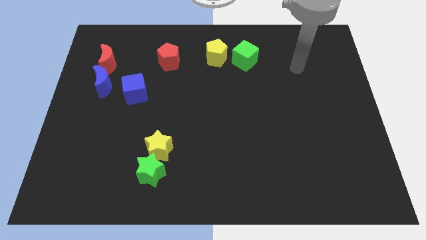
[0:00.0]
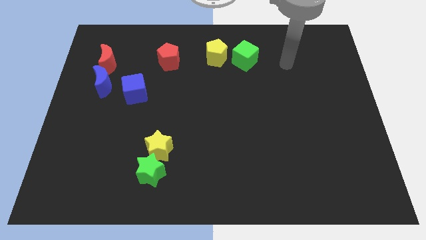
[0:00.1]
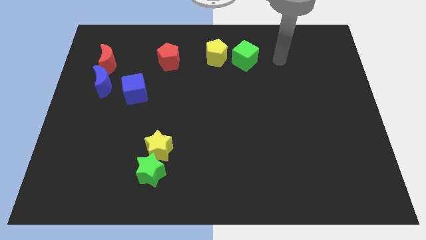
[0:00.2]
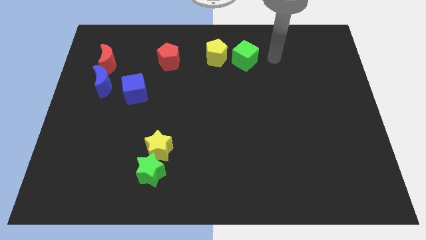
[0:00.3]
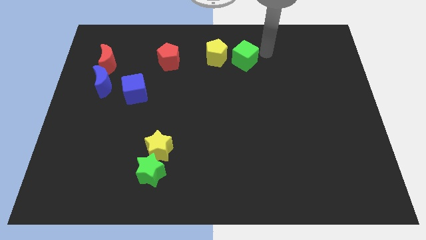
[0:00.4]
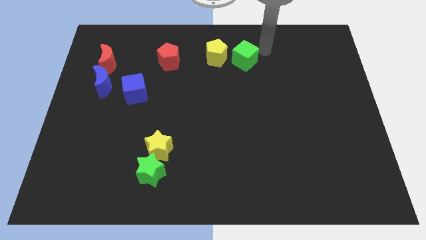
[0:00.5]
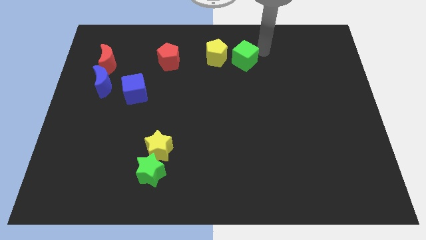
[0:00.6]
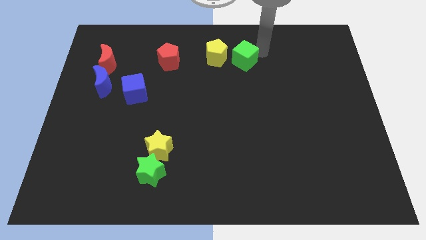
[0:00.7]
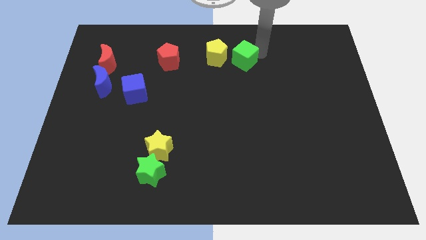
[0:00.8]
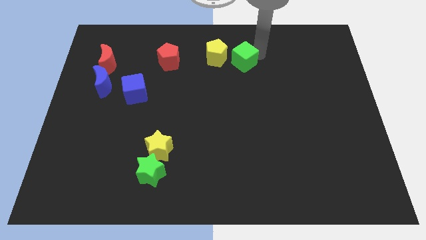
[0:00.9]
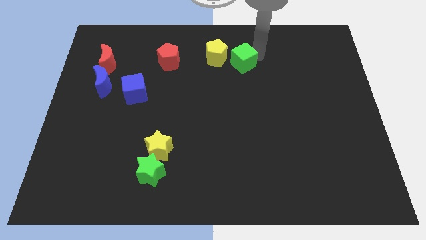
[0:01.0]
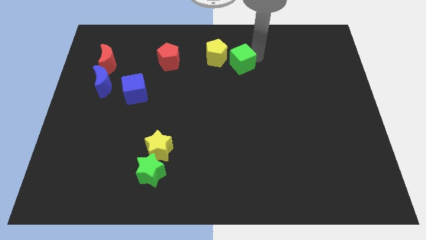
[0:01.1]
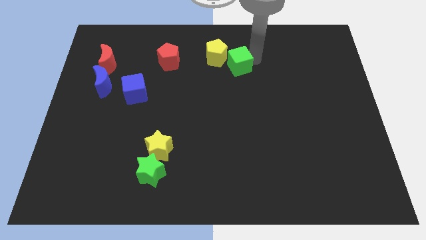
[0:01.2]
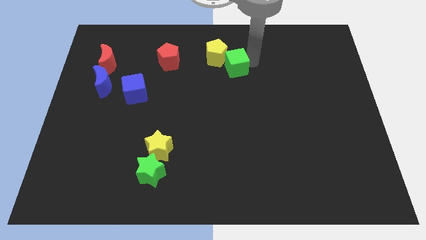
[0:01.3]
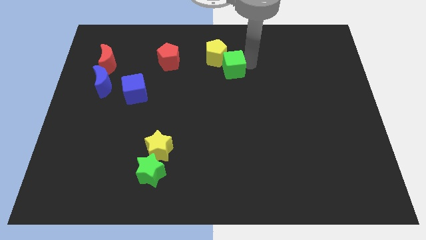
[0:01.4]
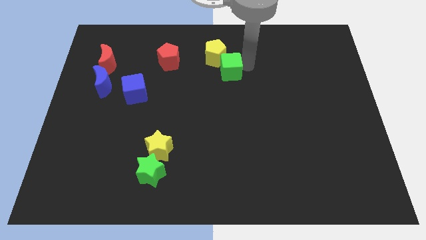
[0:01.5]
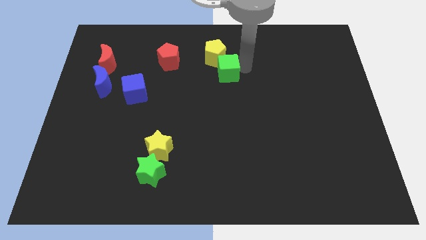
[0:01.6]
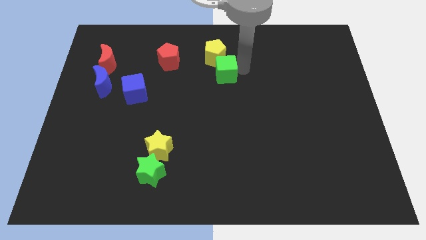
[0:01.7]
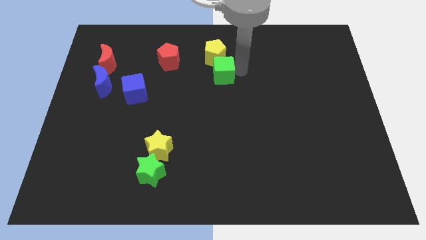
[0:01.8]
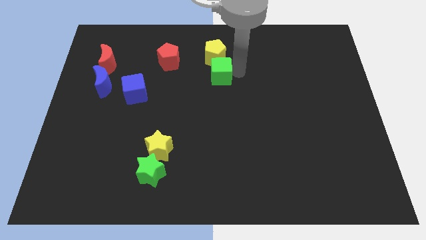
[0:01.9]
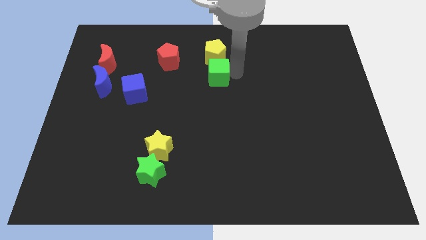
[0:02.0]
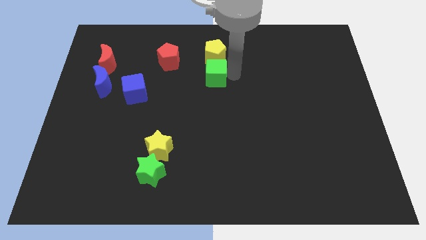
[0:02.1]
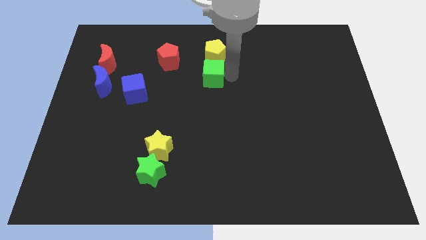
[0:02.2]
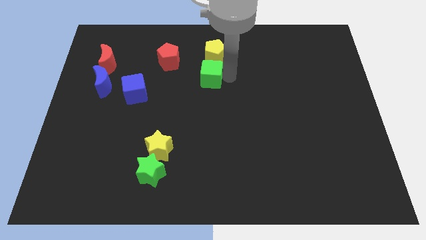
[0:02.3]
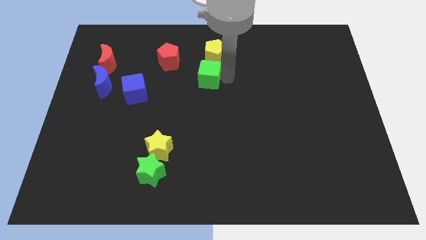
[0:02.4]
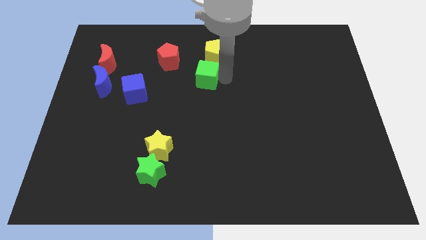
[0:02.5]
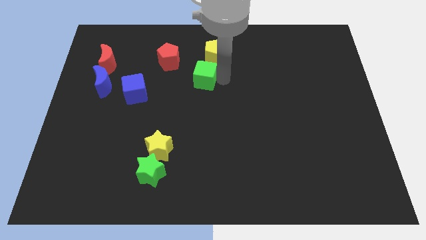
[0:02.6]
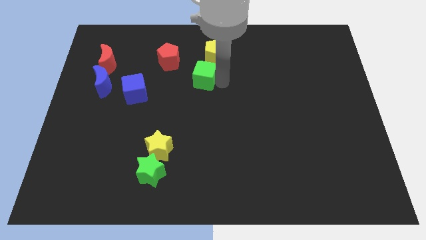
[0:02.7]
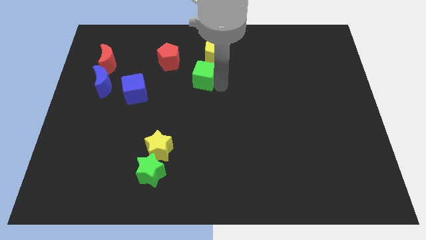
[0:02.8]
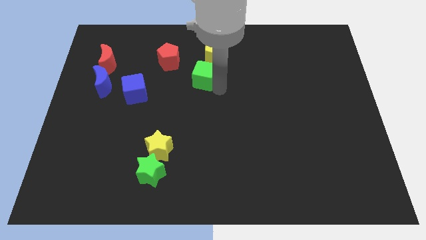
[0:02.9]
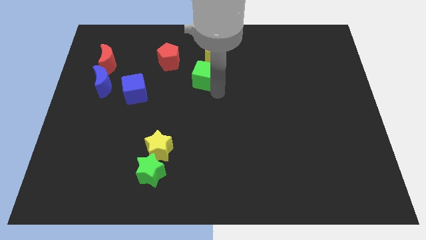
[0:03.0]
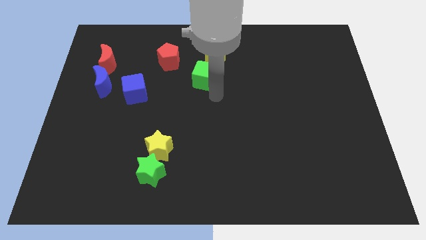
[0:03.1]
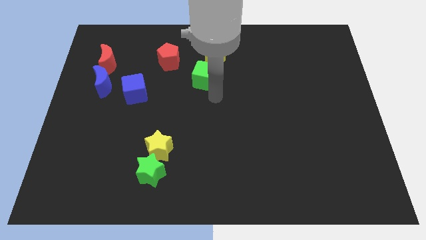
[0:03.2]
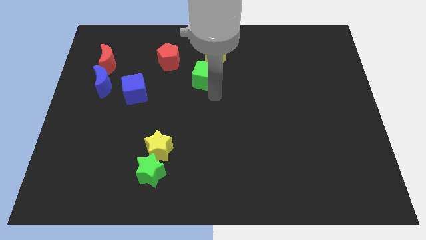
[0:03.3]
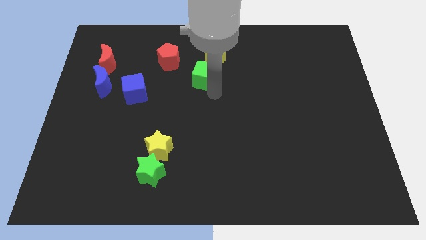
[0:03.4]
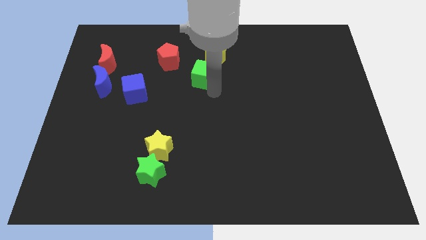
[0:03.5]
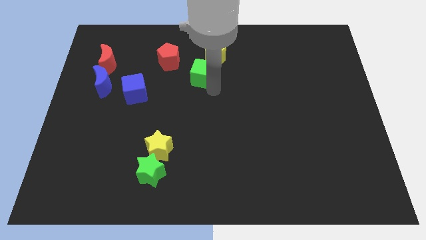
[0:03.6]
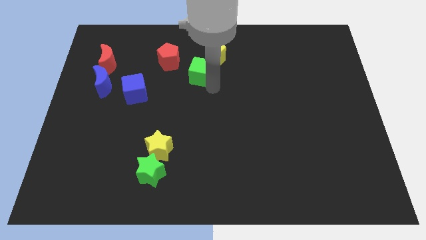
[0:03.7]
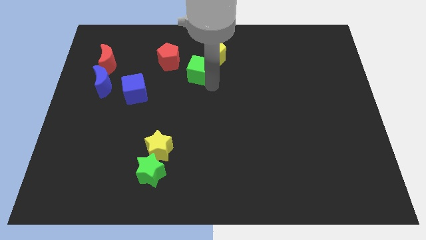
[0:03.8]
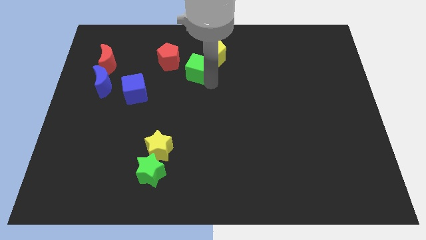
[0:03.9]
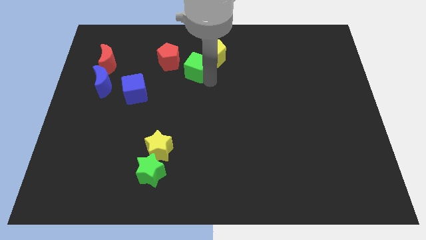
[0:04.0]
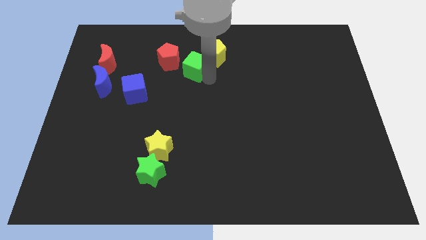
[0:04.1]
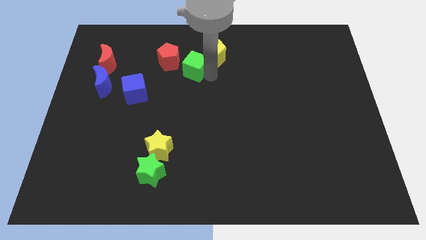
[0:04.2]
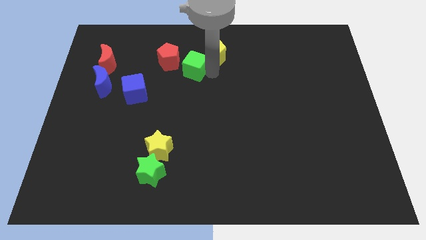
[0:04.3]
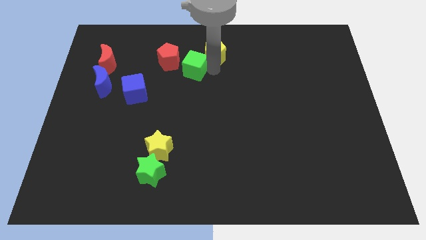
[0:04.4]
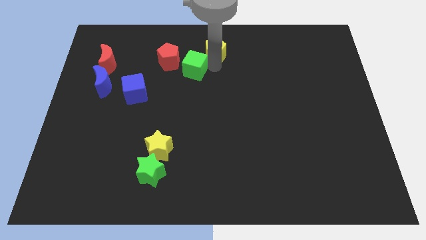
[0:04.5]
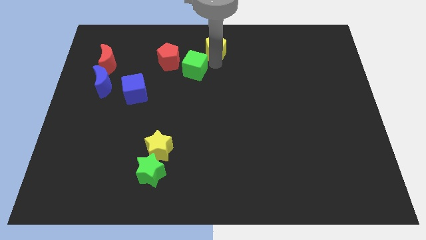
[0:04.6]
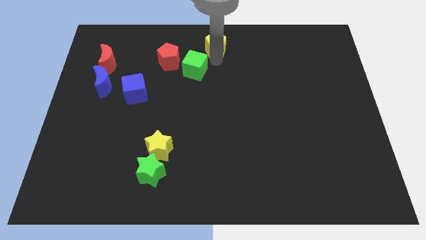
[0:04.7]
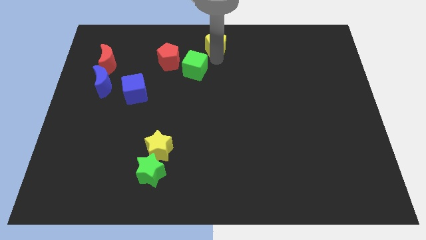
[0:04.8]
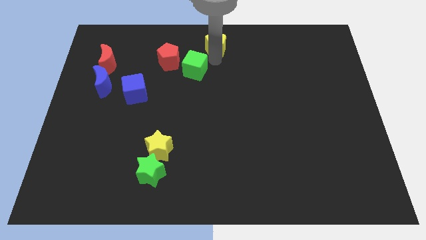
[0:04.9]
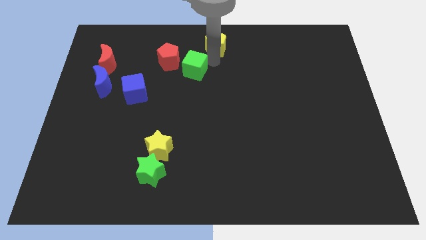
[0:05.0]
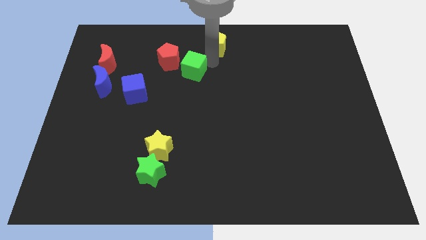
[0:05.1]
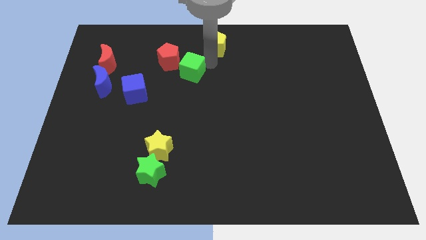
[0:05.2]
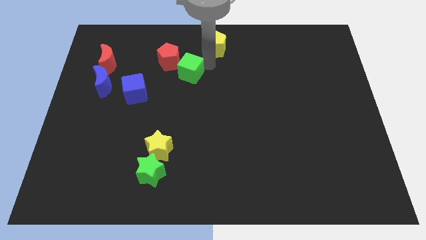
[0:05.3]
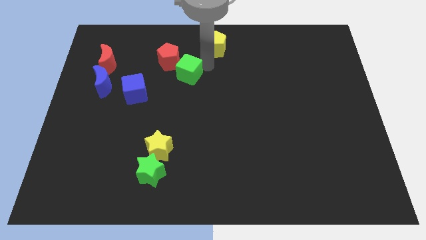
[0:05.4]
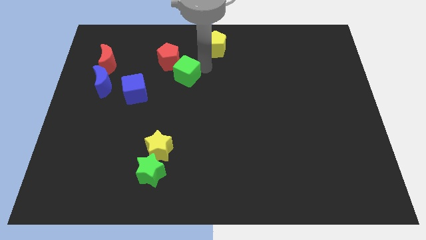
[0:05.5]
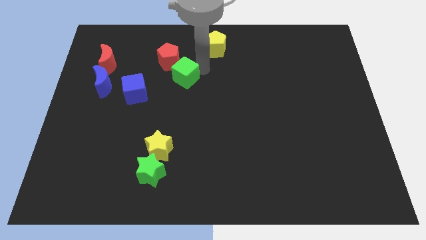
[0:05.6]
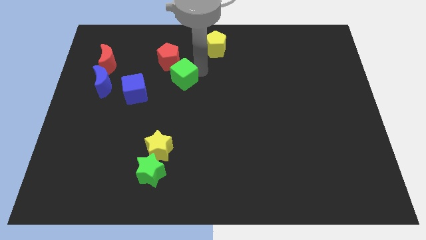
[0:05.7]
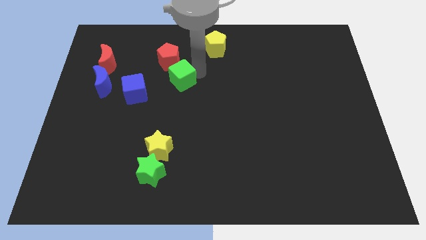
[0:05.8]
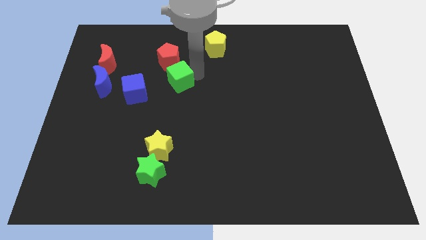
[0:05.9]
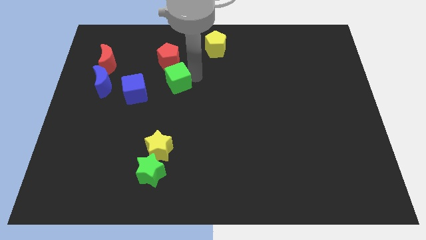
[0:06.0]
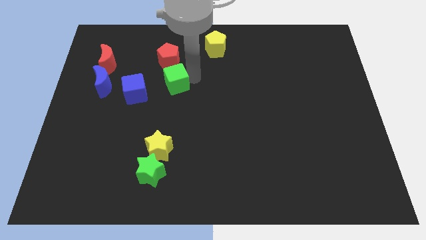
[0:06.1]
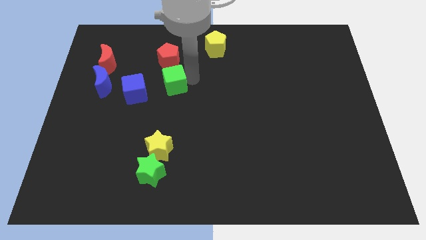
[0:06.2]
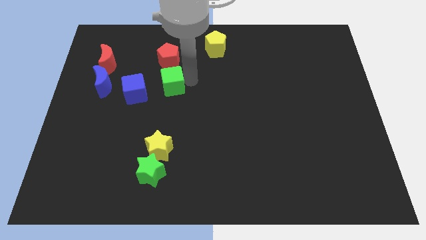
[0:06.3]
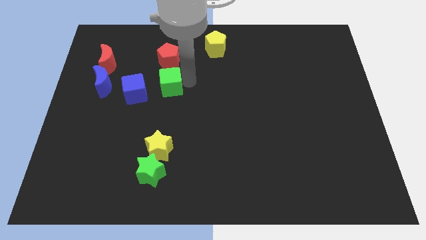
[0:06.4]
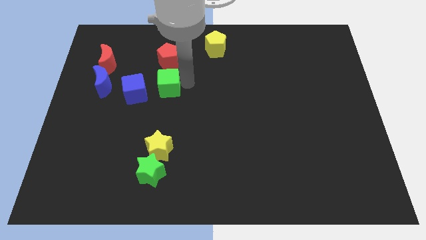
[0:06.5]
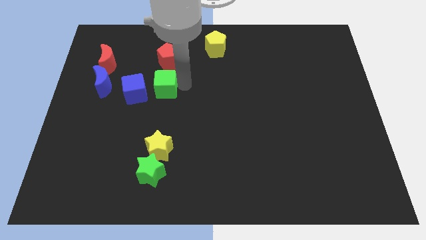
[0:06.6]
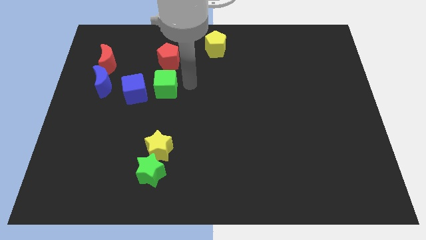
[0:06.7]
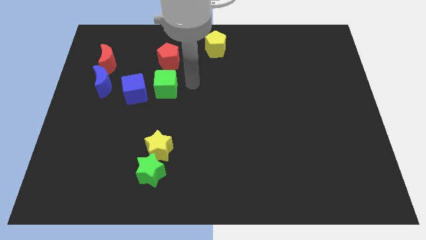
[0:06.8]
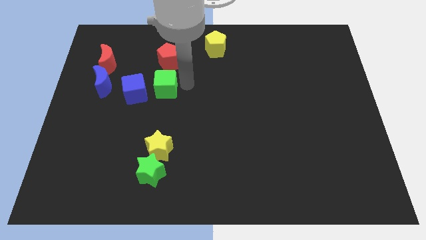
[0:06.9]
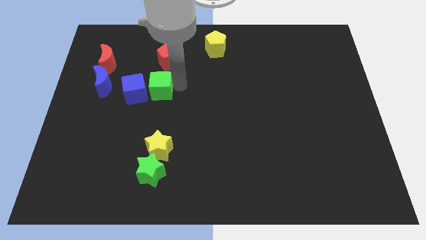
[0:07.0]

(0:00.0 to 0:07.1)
slide the green cube to the blue cube

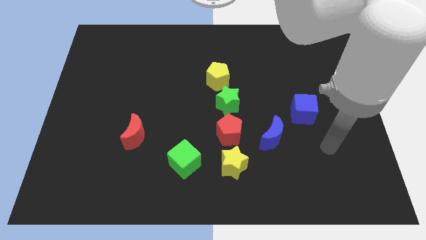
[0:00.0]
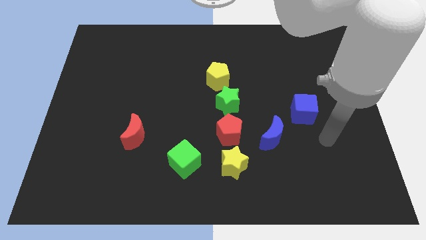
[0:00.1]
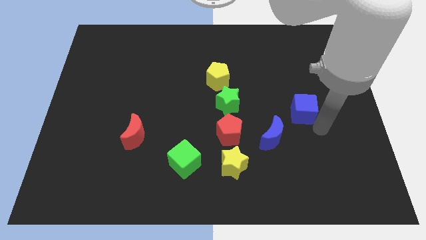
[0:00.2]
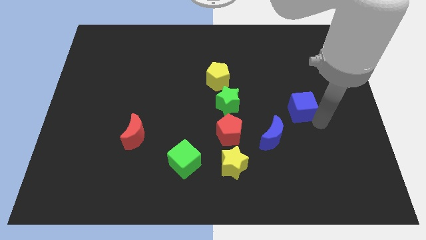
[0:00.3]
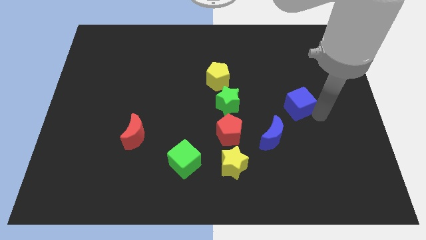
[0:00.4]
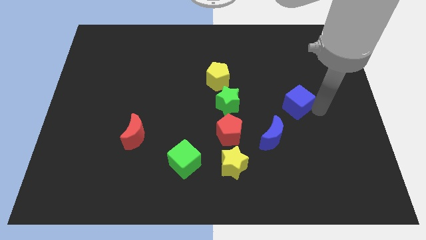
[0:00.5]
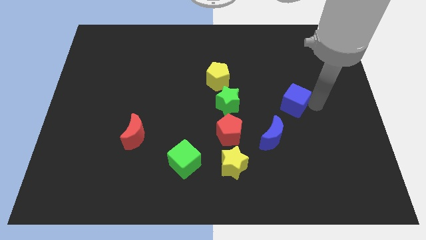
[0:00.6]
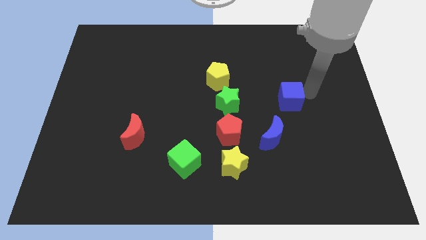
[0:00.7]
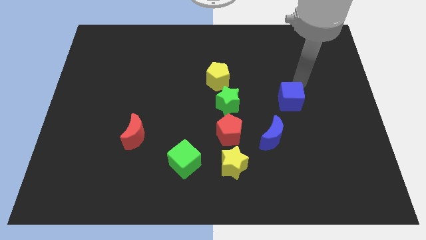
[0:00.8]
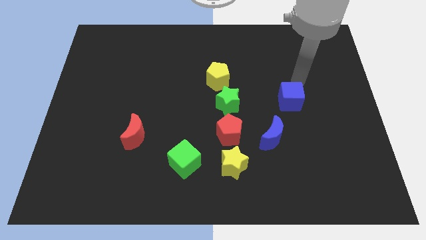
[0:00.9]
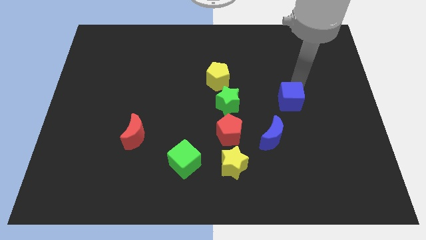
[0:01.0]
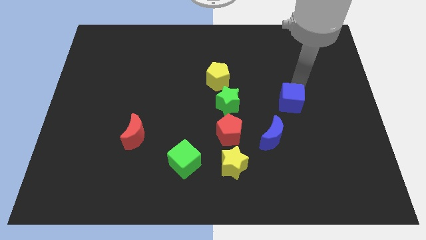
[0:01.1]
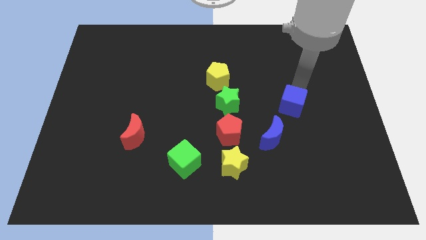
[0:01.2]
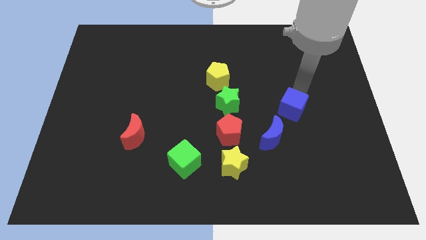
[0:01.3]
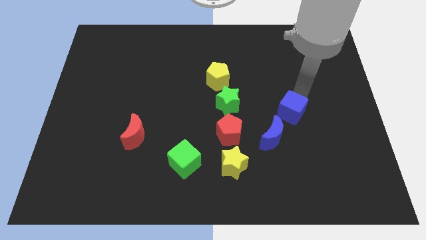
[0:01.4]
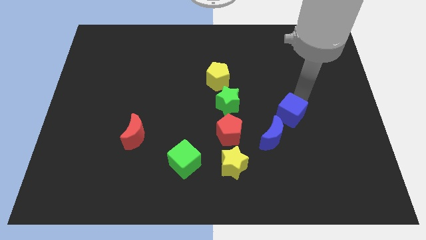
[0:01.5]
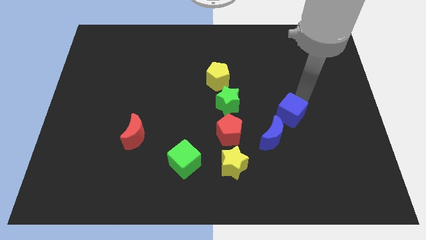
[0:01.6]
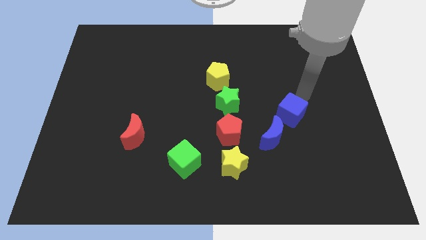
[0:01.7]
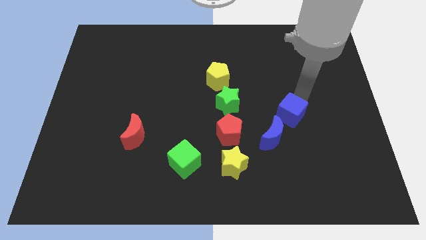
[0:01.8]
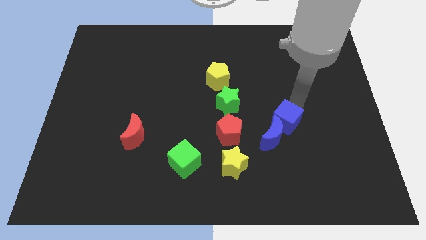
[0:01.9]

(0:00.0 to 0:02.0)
push the blue cube towards the blue moon
